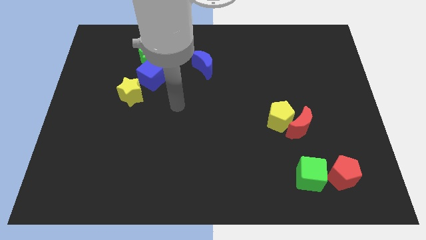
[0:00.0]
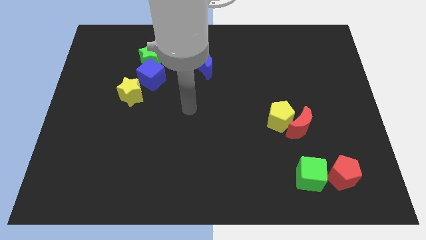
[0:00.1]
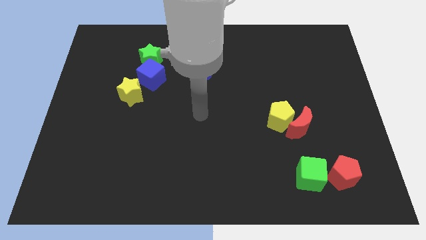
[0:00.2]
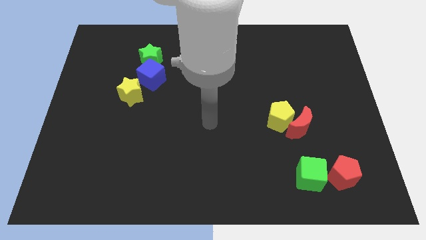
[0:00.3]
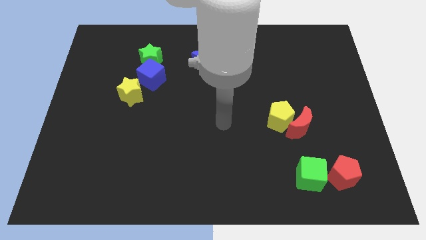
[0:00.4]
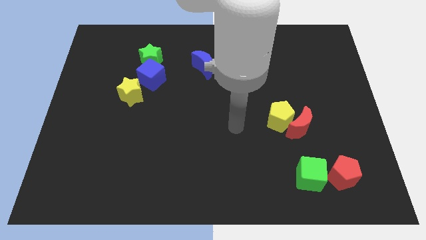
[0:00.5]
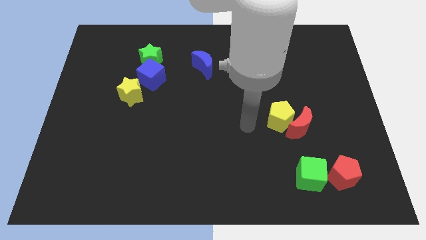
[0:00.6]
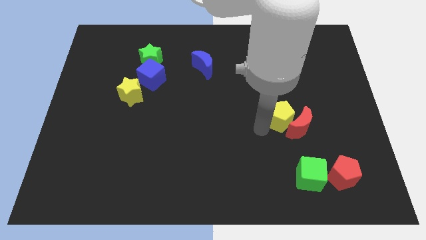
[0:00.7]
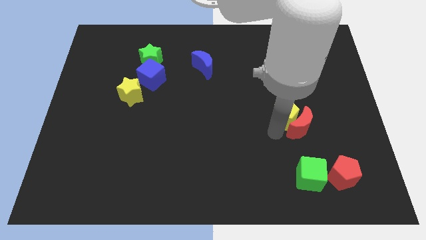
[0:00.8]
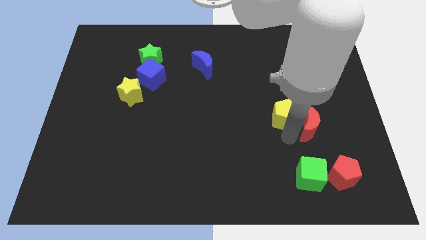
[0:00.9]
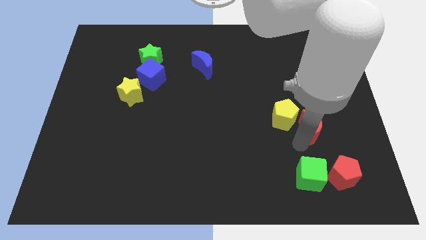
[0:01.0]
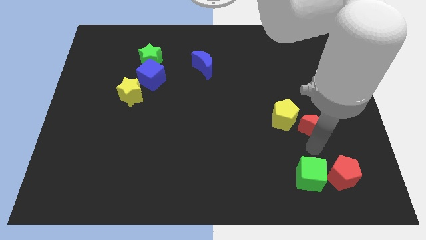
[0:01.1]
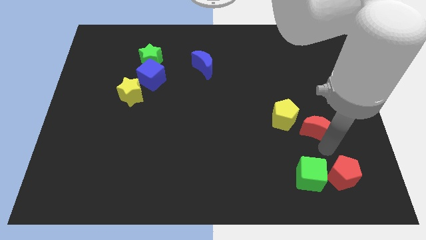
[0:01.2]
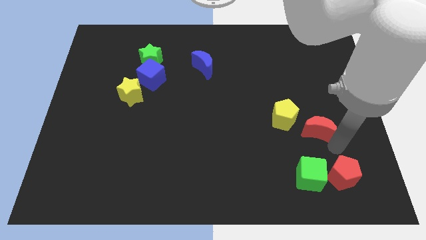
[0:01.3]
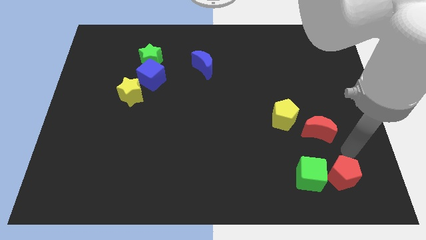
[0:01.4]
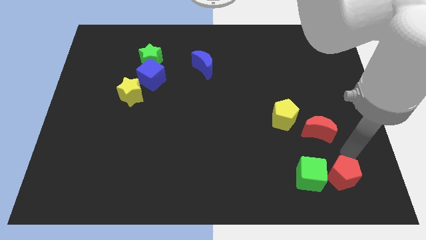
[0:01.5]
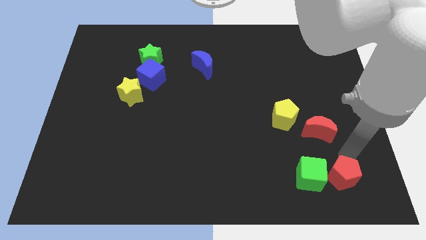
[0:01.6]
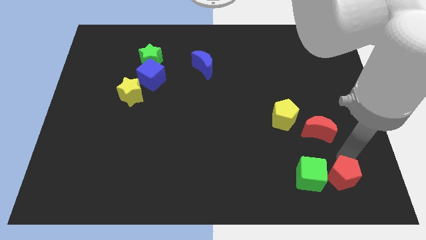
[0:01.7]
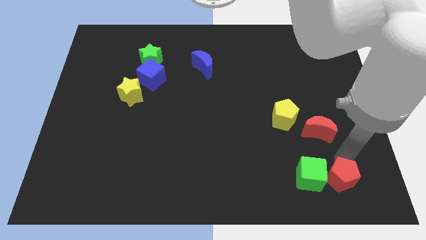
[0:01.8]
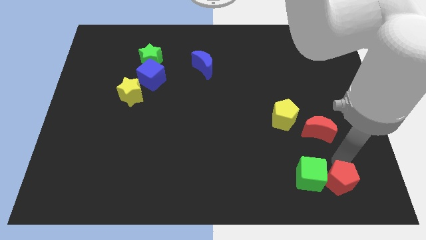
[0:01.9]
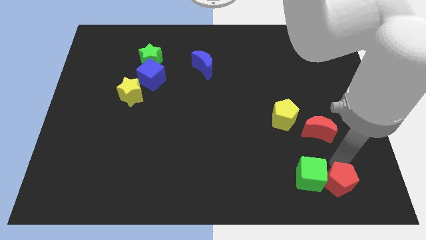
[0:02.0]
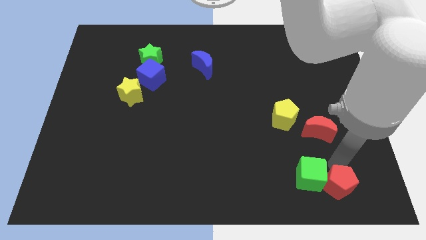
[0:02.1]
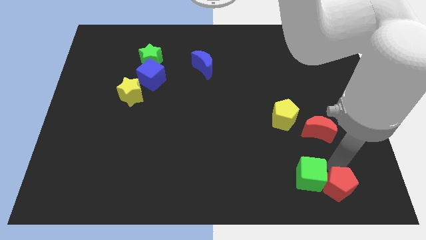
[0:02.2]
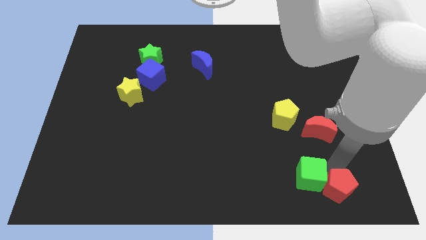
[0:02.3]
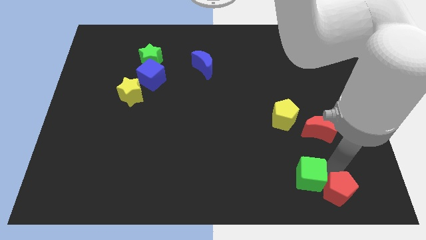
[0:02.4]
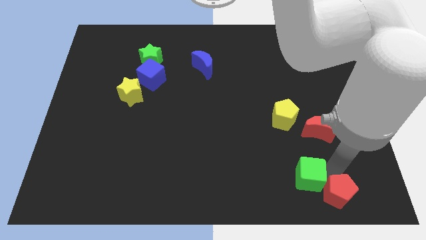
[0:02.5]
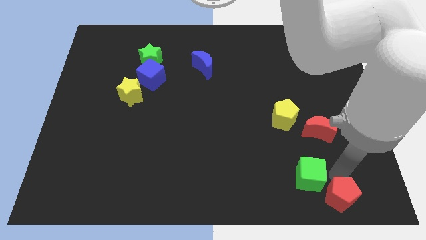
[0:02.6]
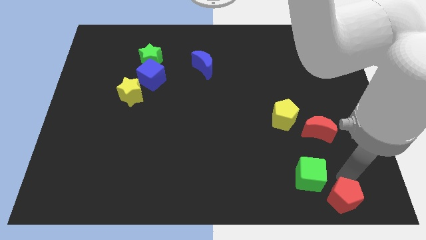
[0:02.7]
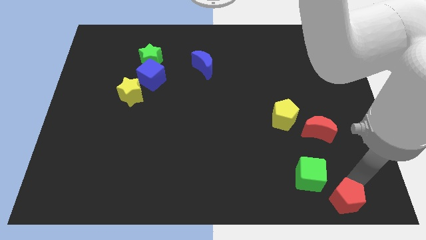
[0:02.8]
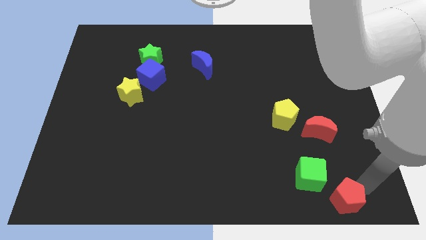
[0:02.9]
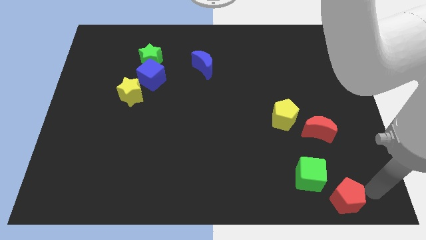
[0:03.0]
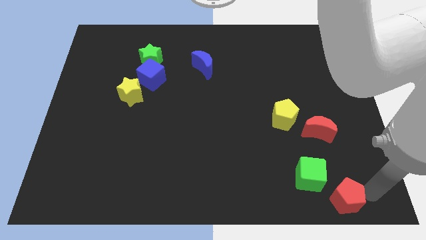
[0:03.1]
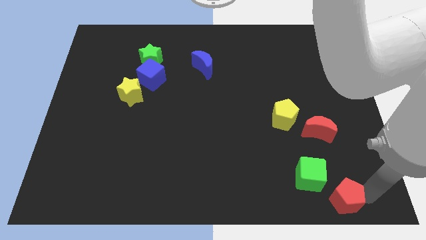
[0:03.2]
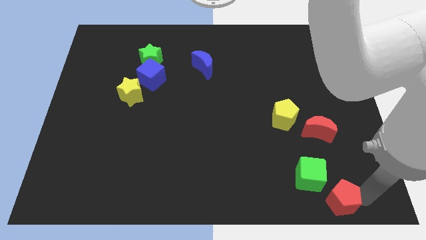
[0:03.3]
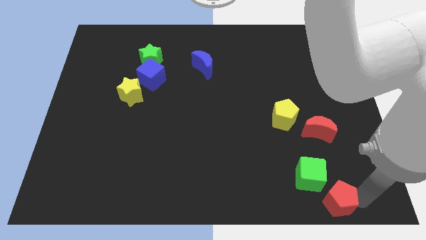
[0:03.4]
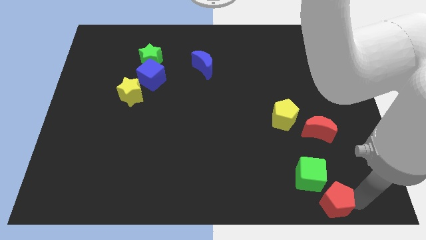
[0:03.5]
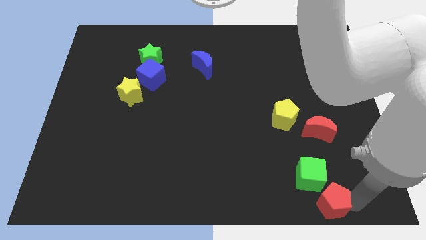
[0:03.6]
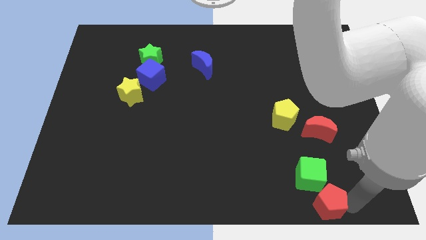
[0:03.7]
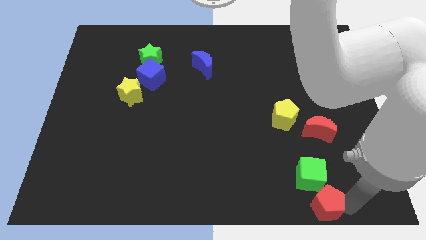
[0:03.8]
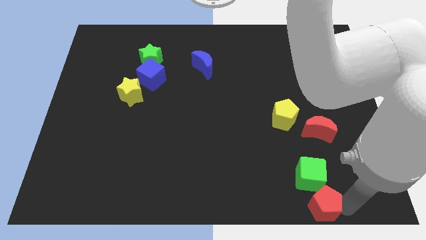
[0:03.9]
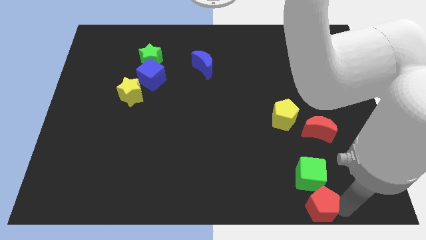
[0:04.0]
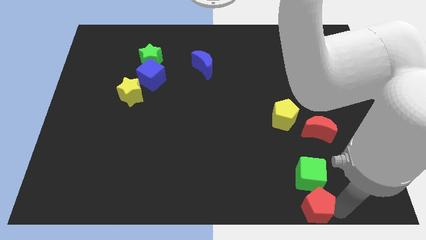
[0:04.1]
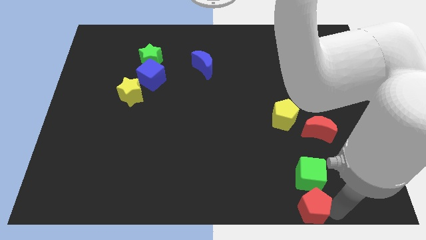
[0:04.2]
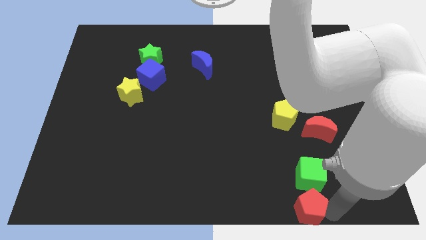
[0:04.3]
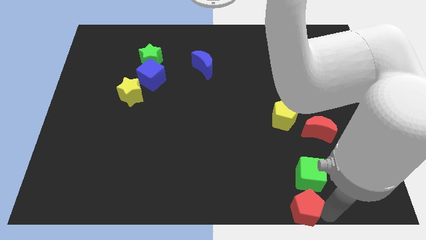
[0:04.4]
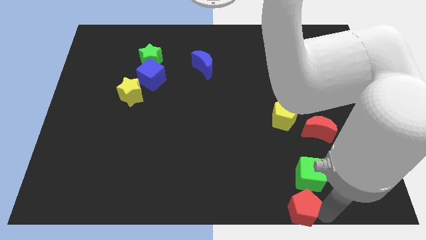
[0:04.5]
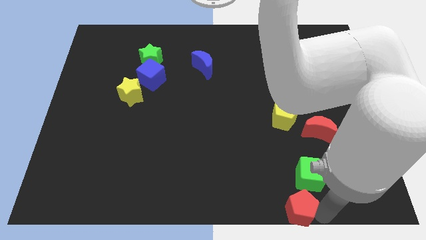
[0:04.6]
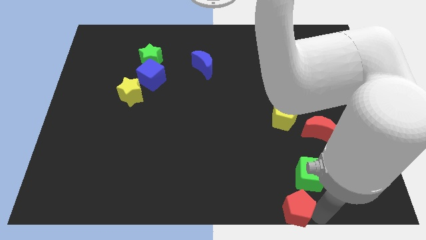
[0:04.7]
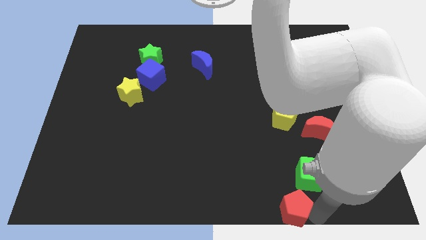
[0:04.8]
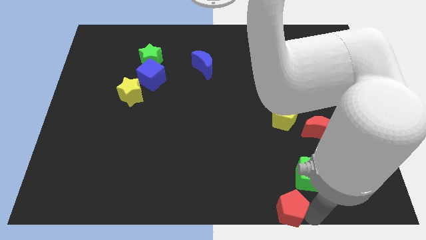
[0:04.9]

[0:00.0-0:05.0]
push the red pentagon to the bottom

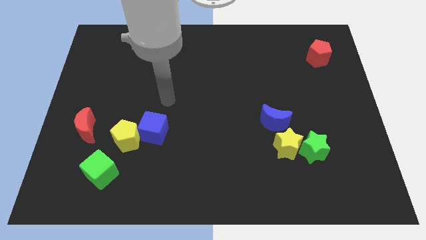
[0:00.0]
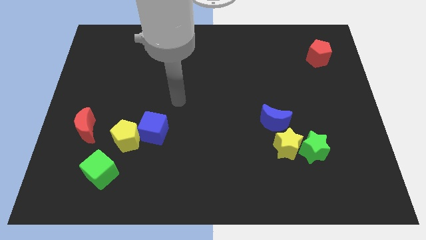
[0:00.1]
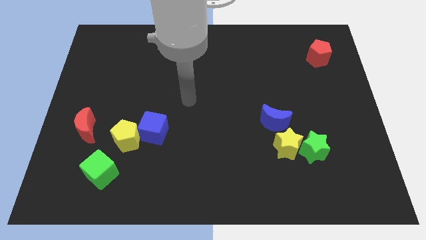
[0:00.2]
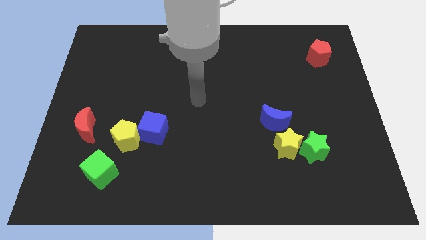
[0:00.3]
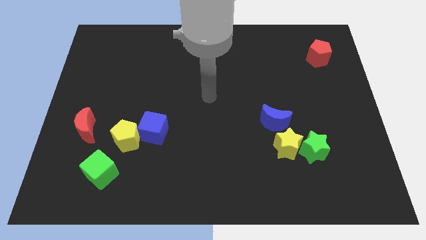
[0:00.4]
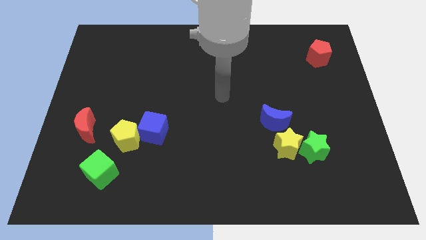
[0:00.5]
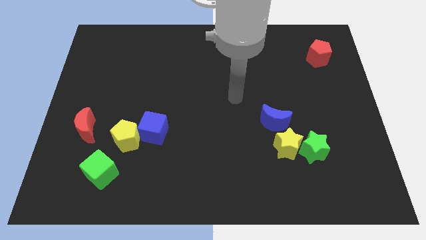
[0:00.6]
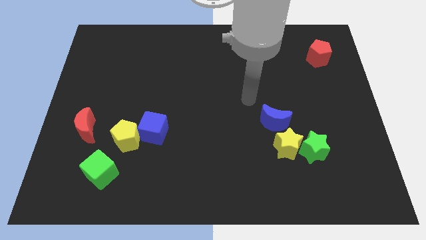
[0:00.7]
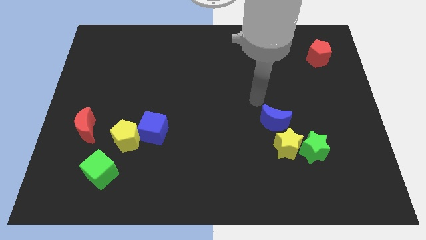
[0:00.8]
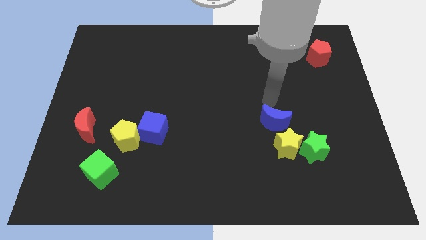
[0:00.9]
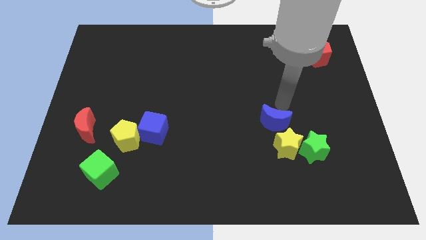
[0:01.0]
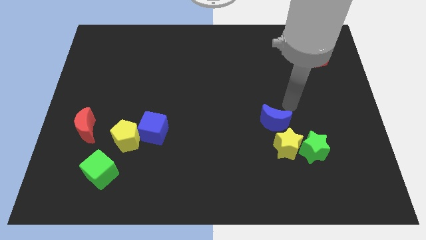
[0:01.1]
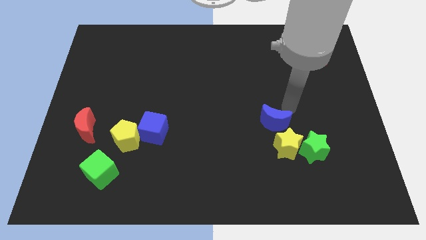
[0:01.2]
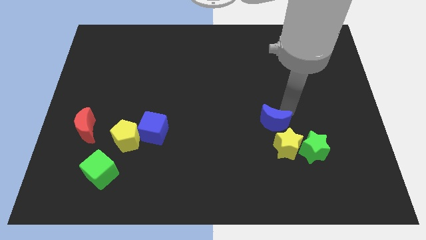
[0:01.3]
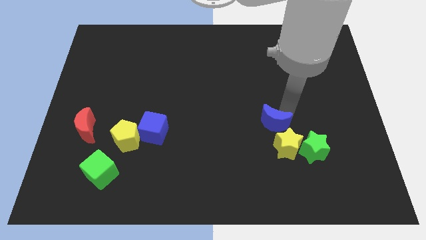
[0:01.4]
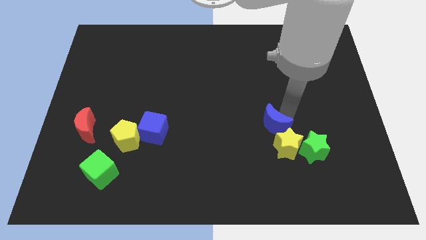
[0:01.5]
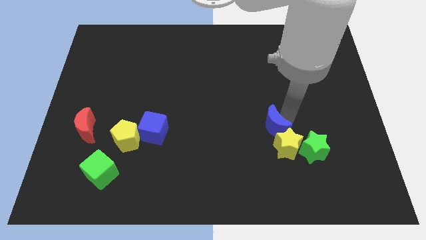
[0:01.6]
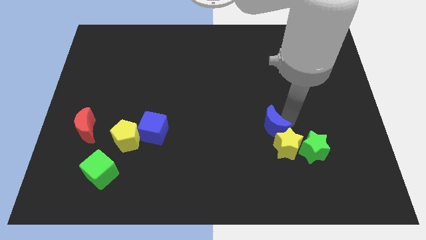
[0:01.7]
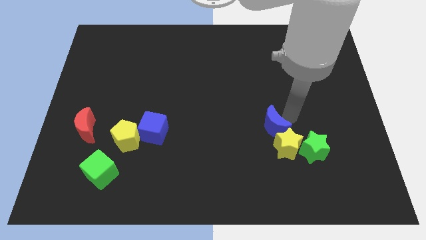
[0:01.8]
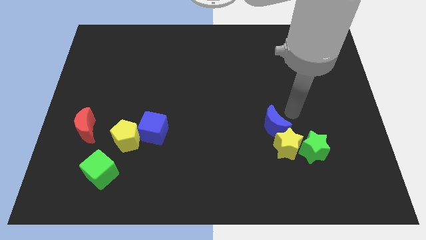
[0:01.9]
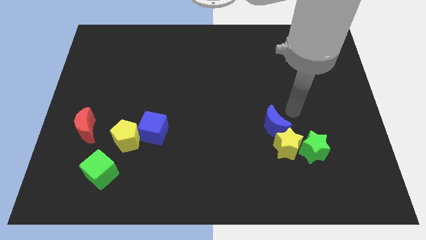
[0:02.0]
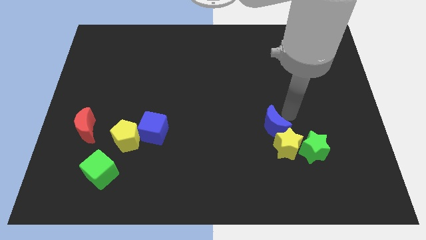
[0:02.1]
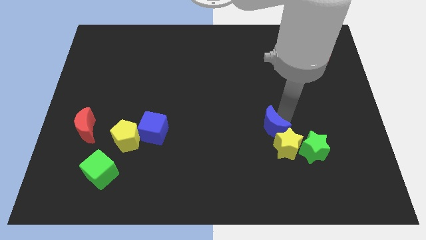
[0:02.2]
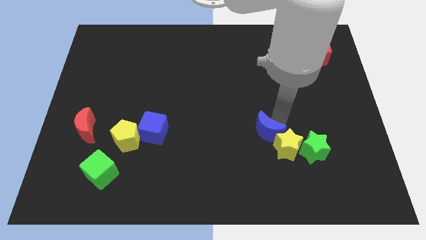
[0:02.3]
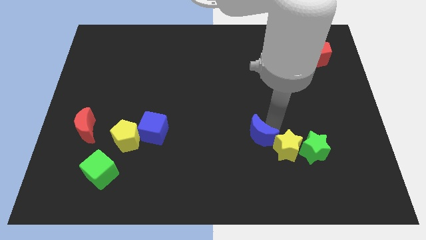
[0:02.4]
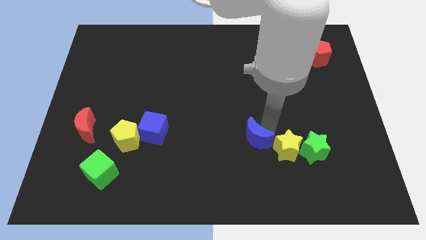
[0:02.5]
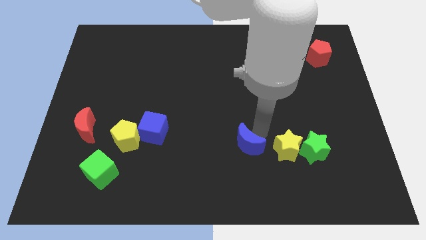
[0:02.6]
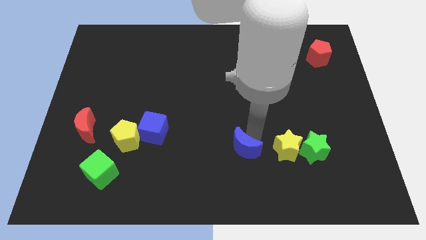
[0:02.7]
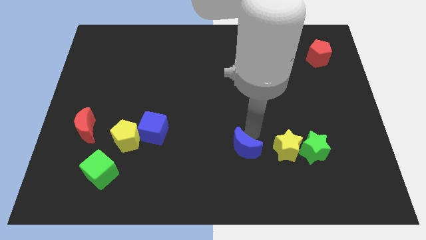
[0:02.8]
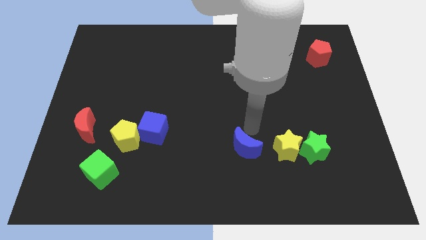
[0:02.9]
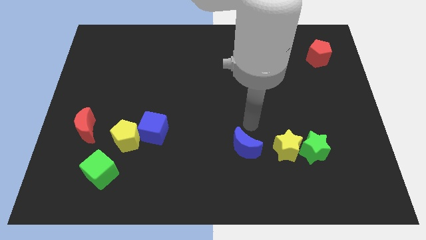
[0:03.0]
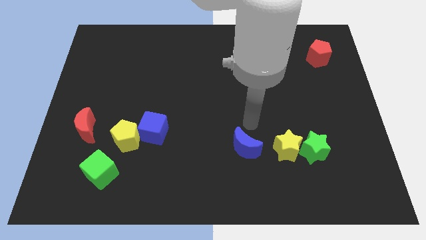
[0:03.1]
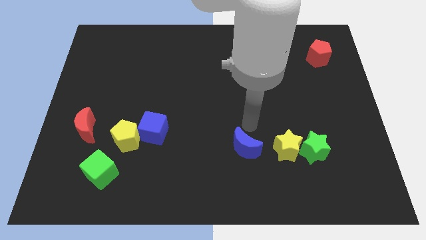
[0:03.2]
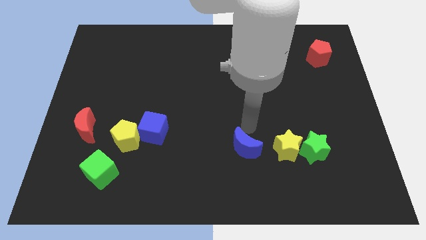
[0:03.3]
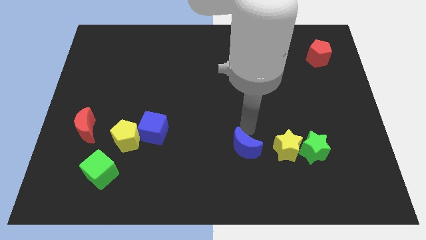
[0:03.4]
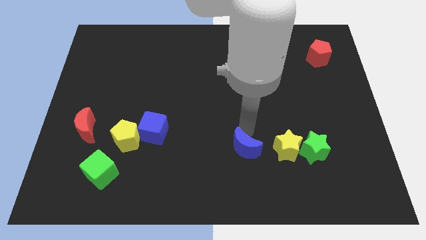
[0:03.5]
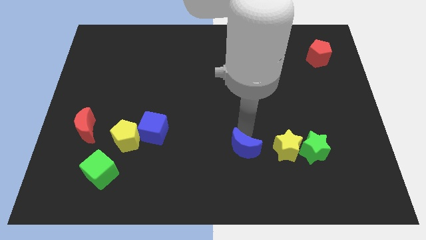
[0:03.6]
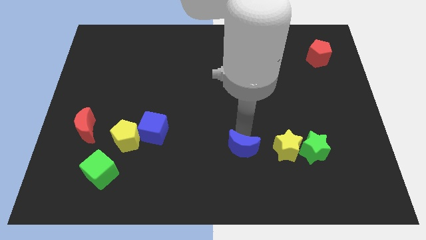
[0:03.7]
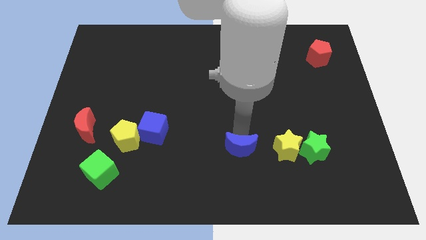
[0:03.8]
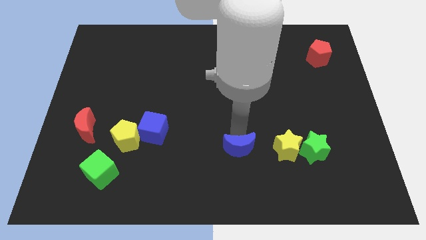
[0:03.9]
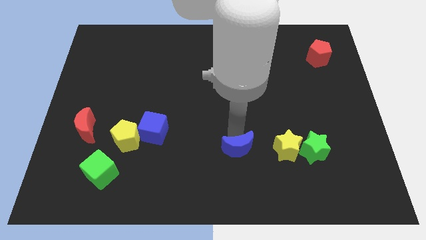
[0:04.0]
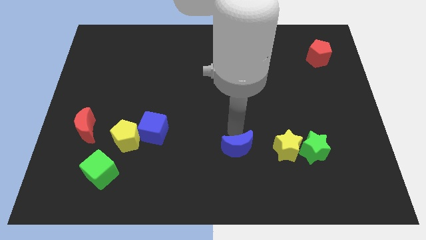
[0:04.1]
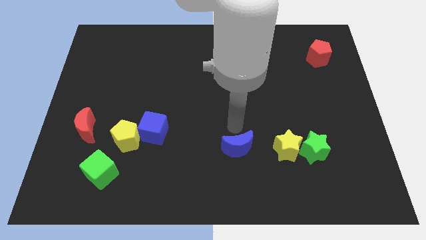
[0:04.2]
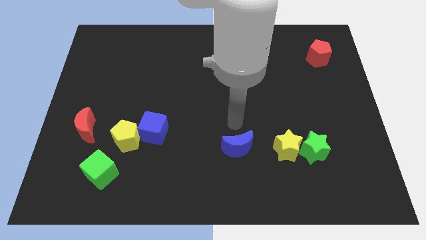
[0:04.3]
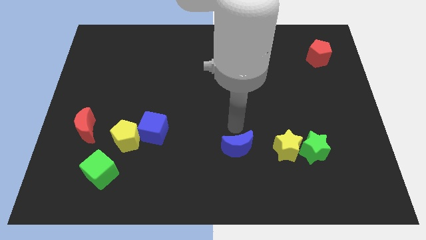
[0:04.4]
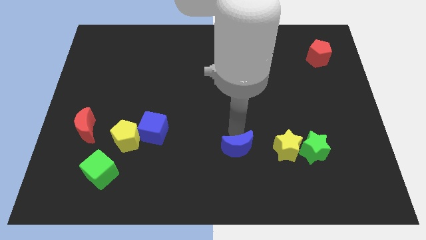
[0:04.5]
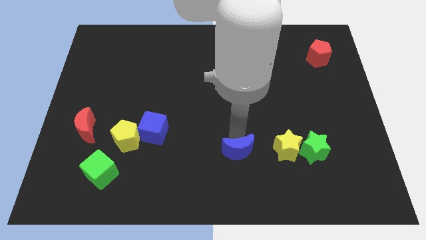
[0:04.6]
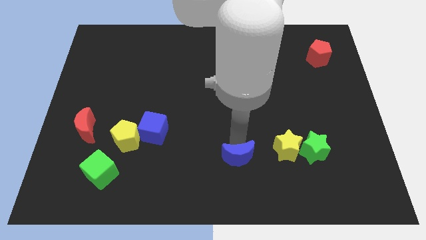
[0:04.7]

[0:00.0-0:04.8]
move the blue moon to the bottom side
